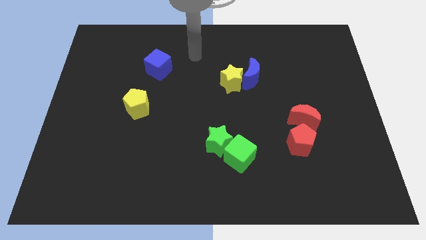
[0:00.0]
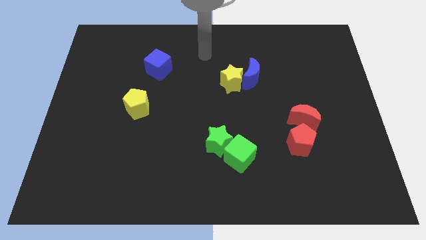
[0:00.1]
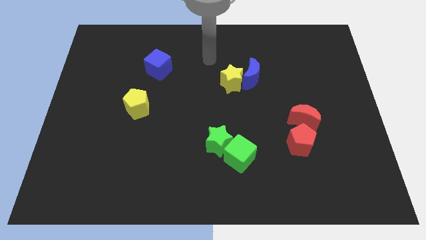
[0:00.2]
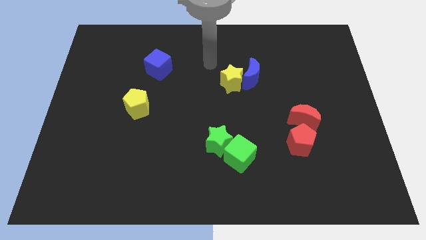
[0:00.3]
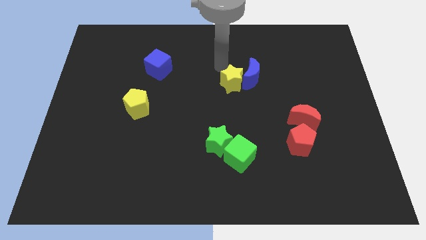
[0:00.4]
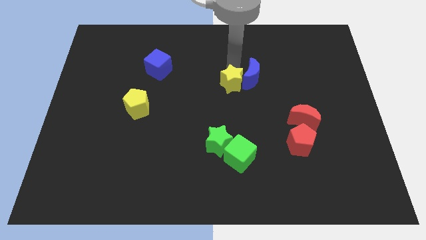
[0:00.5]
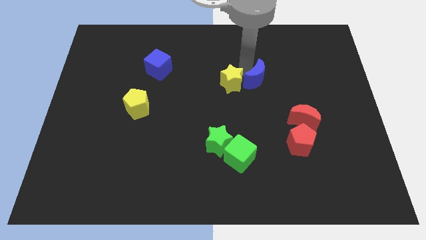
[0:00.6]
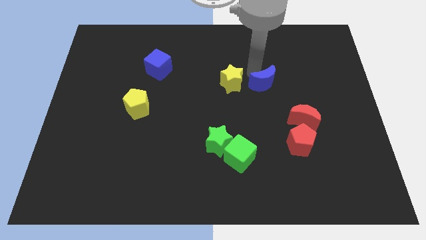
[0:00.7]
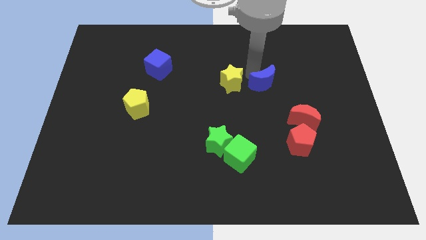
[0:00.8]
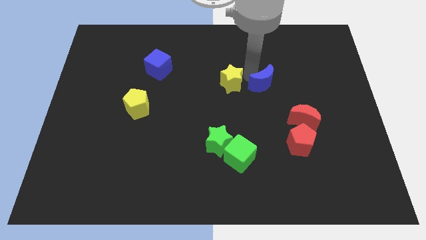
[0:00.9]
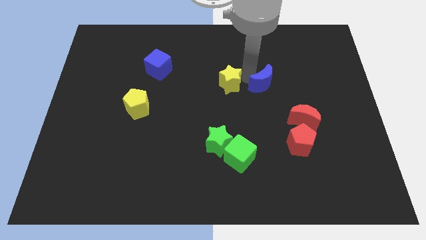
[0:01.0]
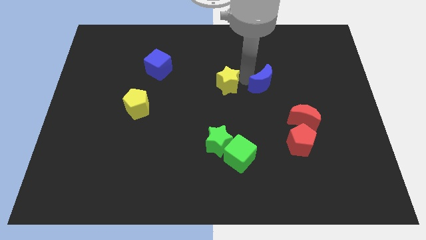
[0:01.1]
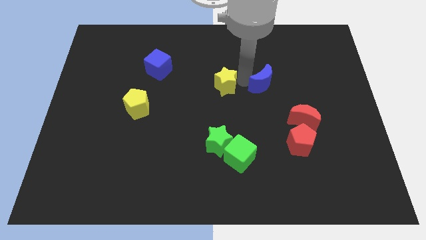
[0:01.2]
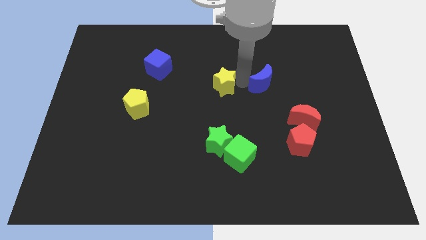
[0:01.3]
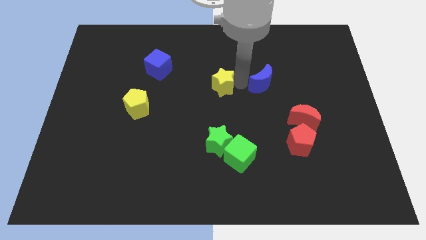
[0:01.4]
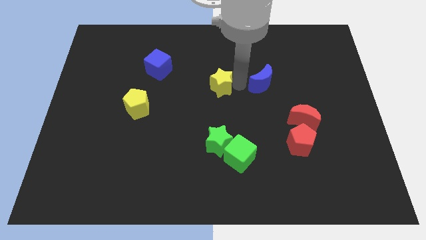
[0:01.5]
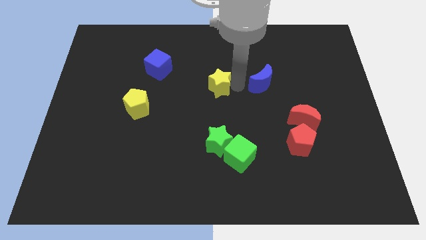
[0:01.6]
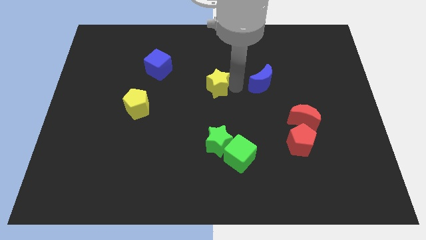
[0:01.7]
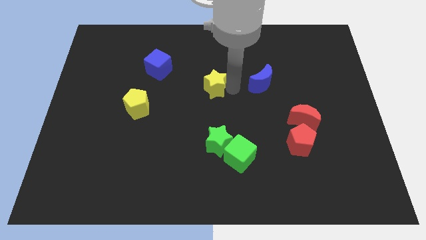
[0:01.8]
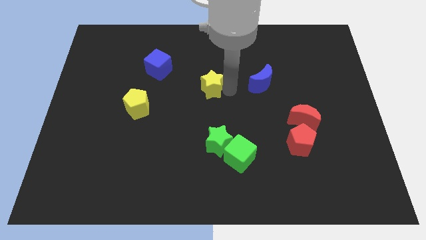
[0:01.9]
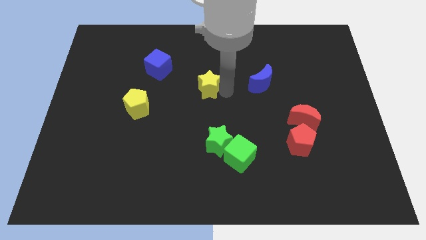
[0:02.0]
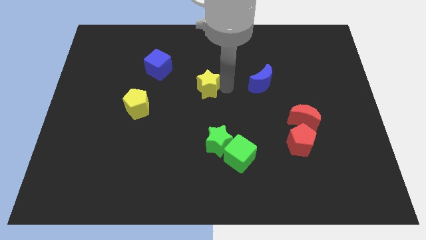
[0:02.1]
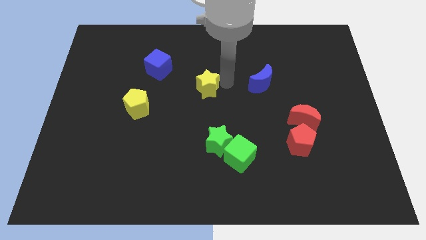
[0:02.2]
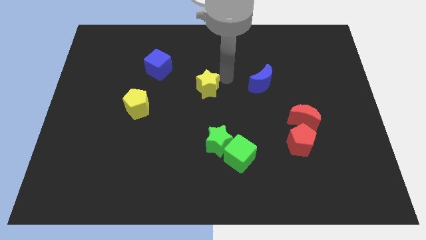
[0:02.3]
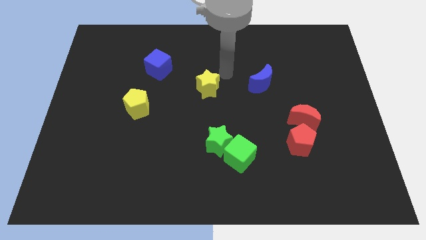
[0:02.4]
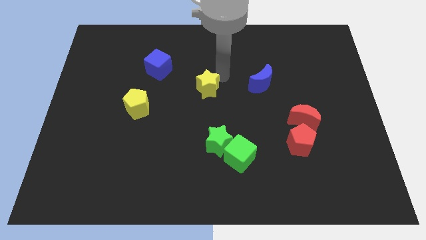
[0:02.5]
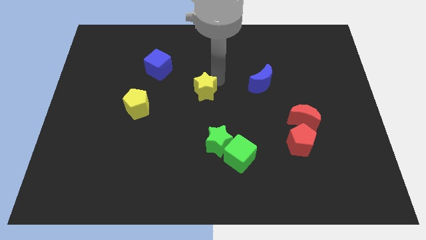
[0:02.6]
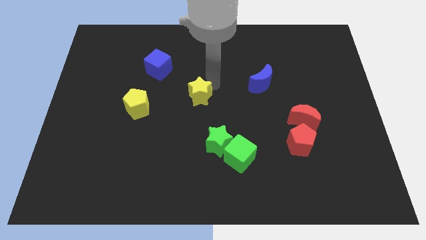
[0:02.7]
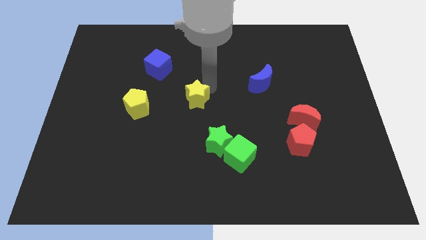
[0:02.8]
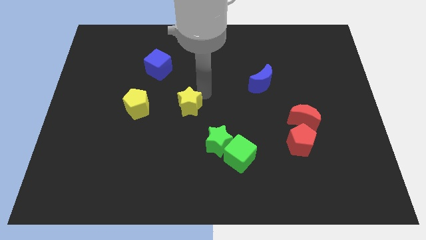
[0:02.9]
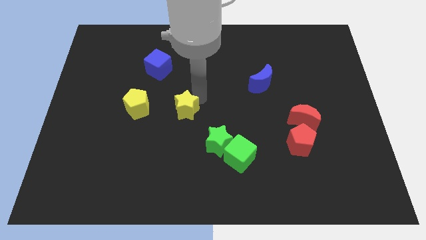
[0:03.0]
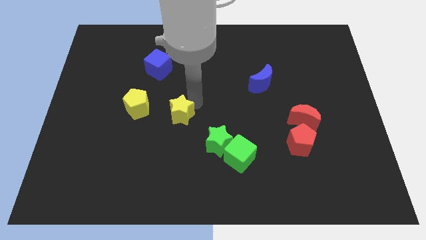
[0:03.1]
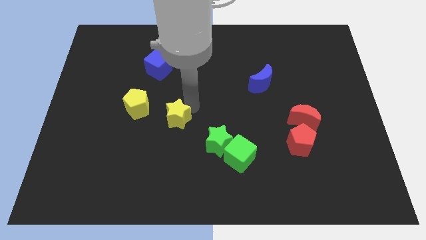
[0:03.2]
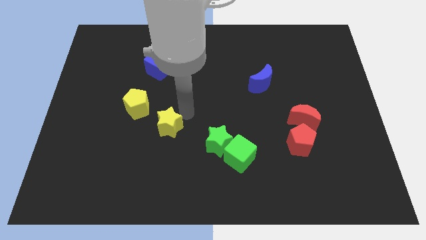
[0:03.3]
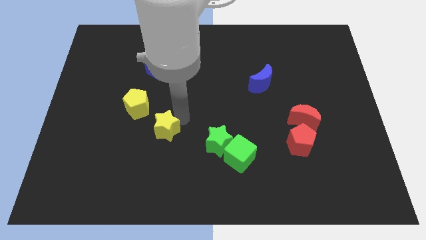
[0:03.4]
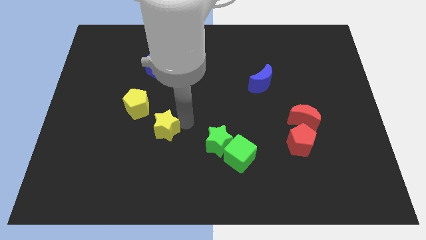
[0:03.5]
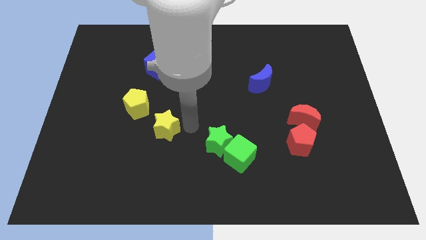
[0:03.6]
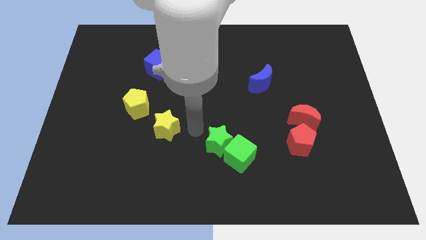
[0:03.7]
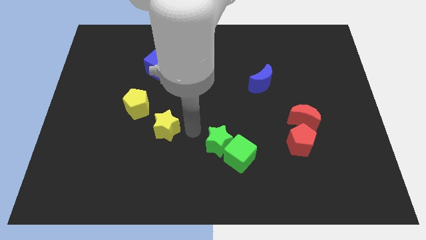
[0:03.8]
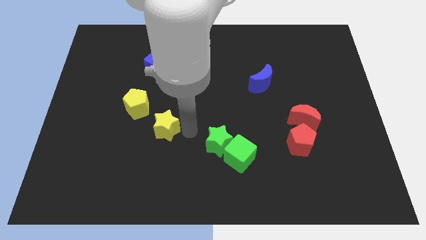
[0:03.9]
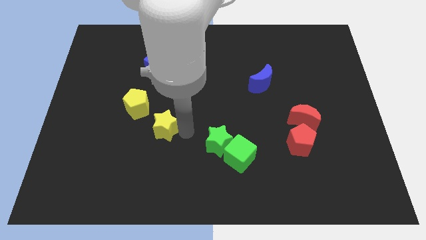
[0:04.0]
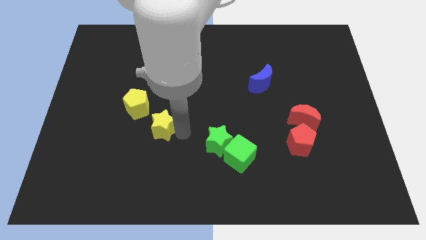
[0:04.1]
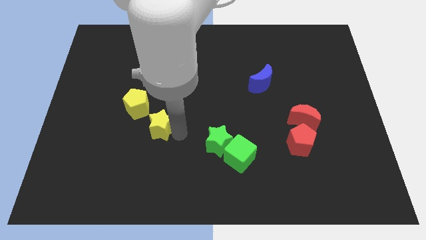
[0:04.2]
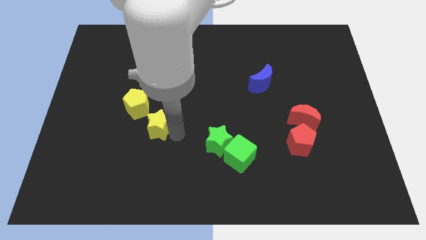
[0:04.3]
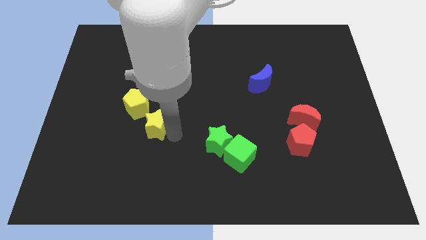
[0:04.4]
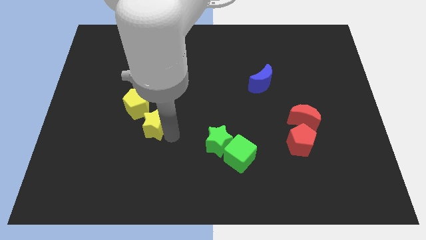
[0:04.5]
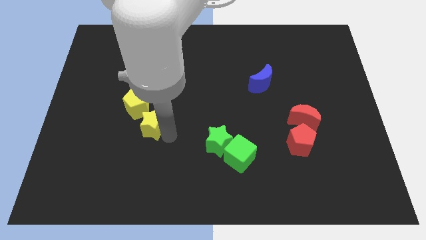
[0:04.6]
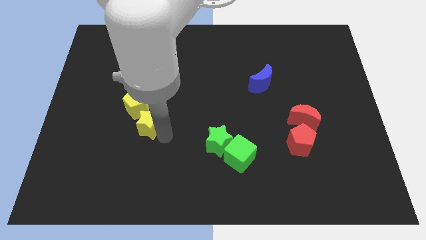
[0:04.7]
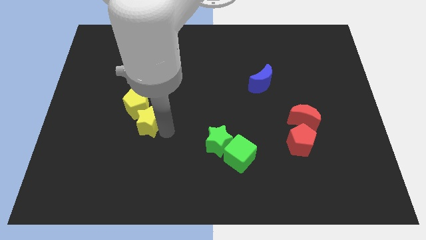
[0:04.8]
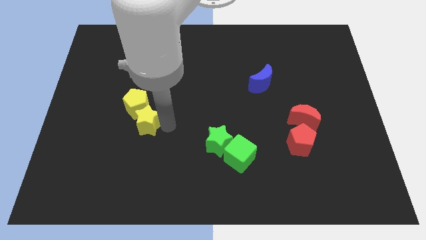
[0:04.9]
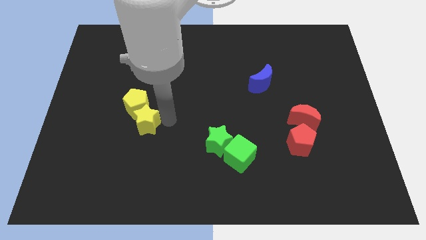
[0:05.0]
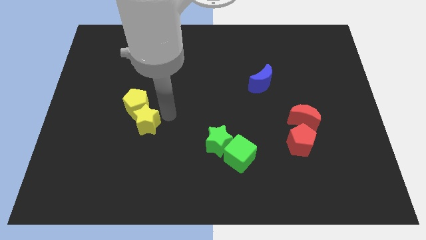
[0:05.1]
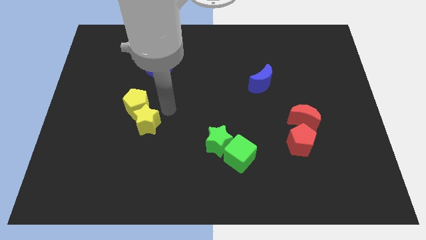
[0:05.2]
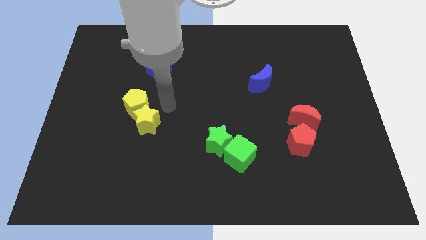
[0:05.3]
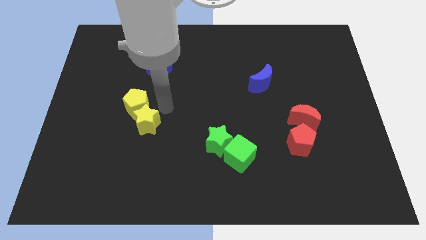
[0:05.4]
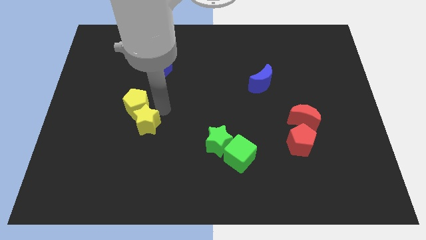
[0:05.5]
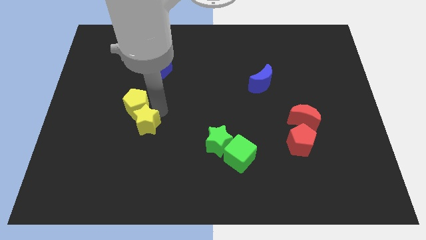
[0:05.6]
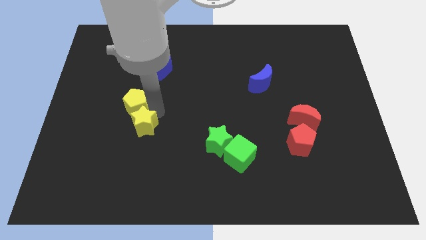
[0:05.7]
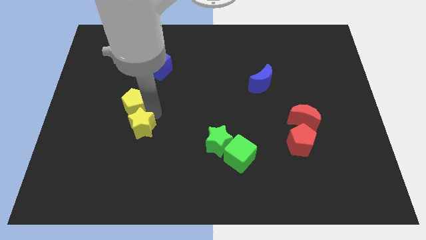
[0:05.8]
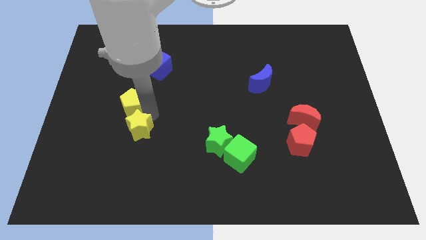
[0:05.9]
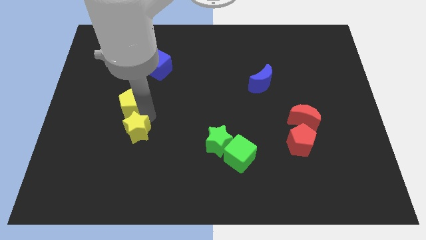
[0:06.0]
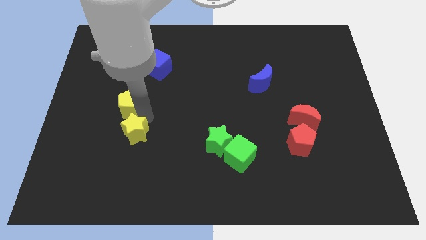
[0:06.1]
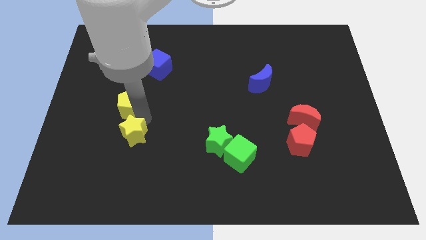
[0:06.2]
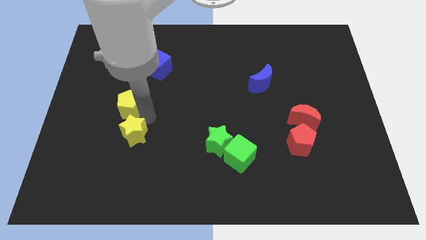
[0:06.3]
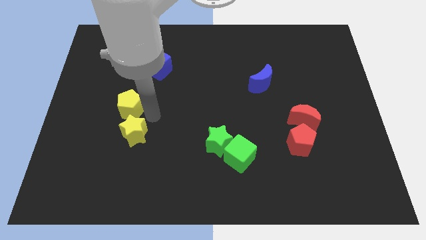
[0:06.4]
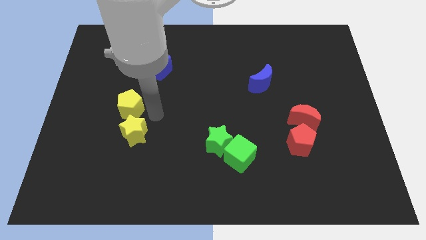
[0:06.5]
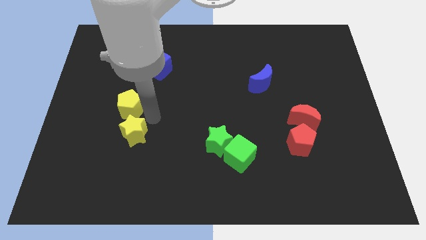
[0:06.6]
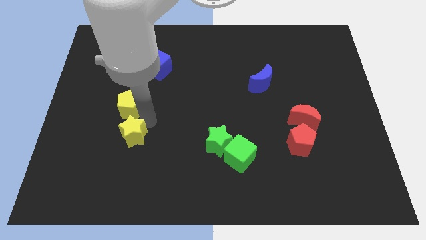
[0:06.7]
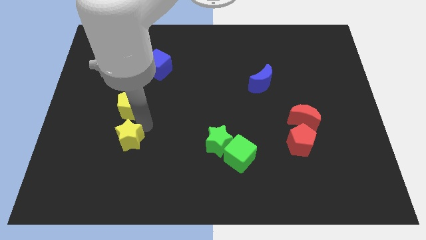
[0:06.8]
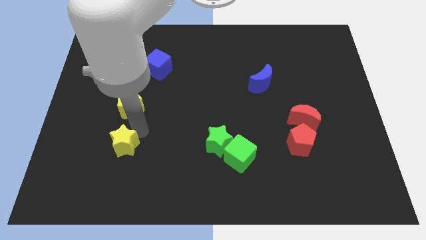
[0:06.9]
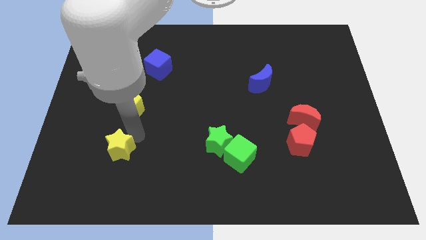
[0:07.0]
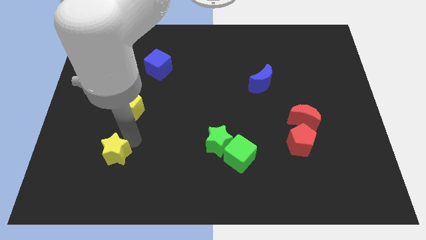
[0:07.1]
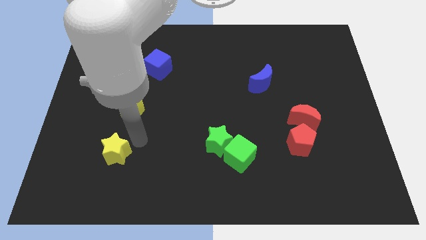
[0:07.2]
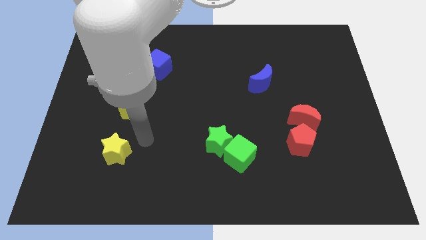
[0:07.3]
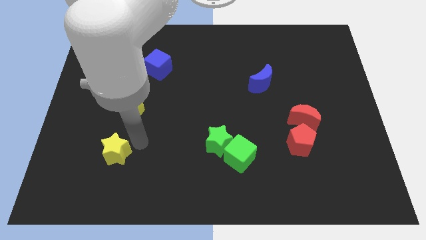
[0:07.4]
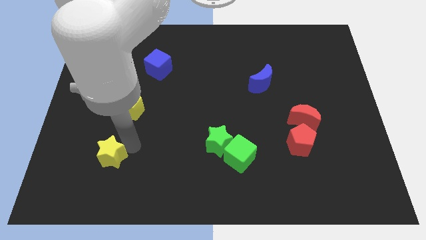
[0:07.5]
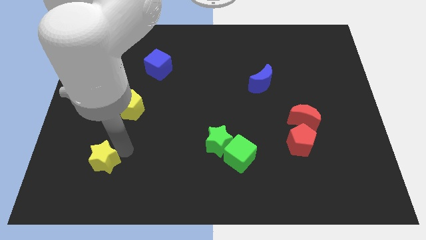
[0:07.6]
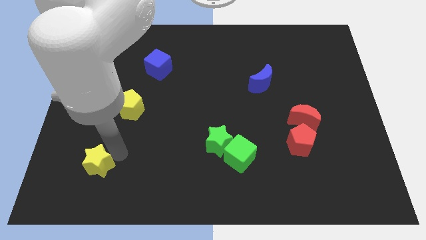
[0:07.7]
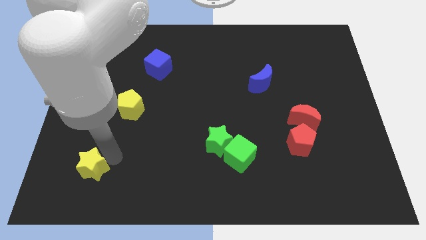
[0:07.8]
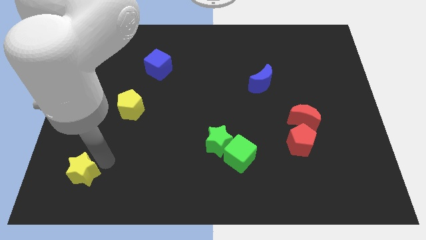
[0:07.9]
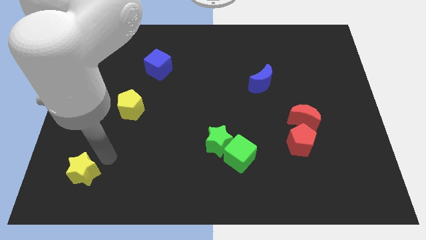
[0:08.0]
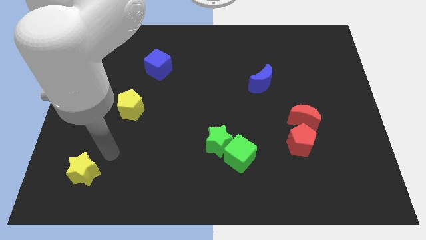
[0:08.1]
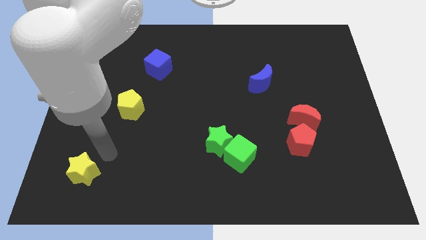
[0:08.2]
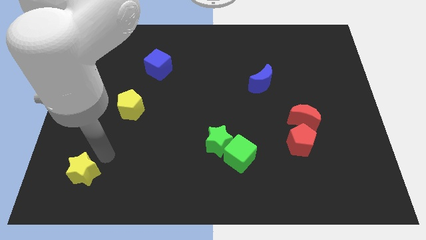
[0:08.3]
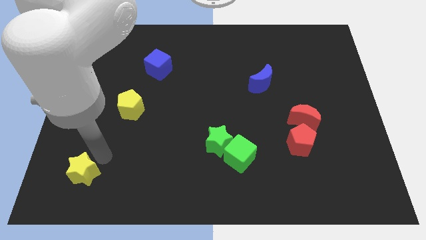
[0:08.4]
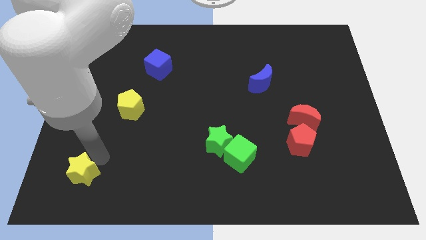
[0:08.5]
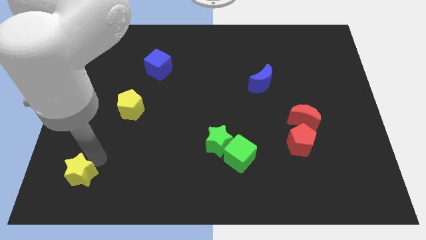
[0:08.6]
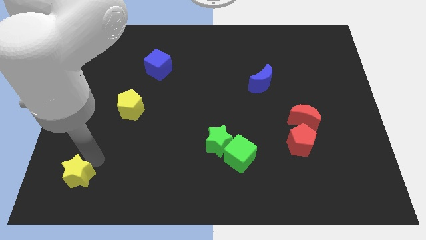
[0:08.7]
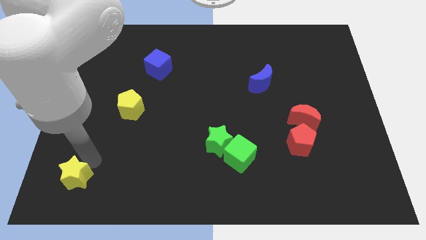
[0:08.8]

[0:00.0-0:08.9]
push the yellow star to the bottom left corner
